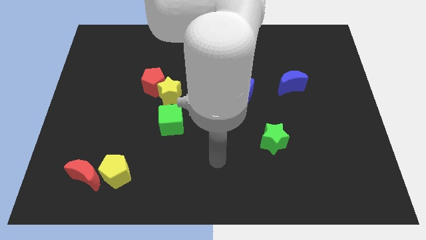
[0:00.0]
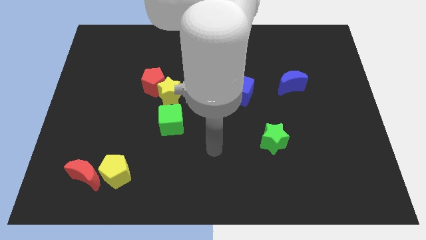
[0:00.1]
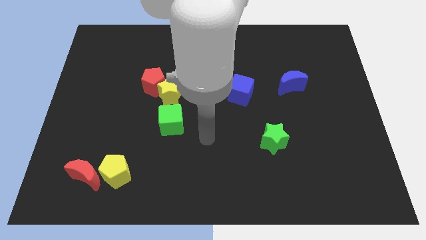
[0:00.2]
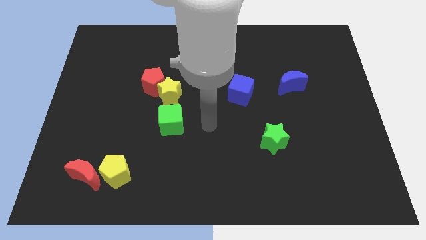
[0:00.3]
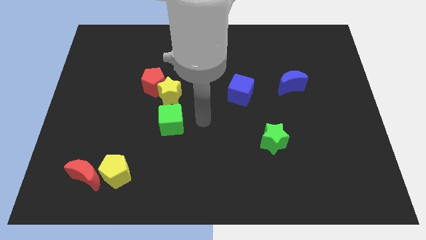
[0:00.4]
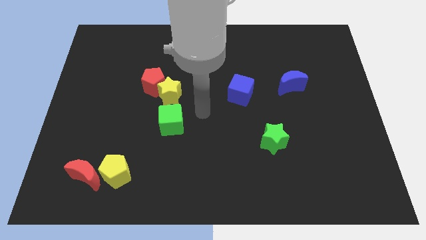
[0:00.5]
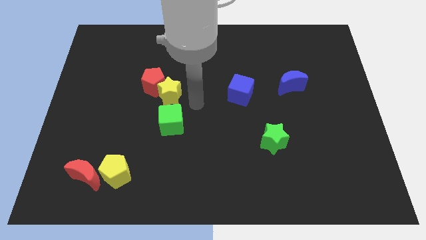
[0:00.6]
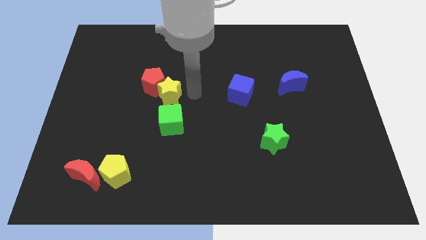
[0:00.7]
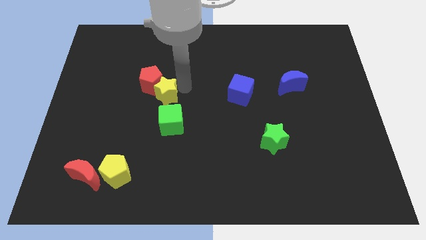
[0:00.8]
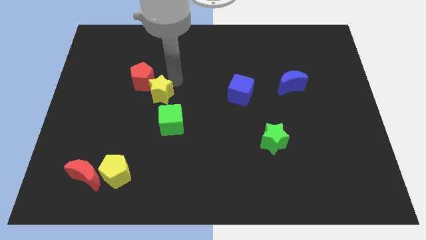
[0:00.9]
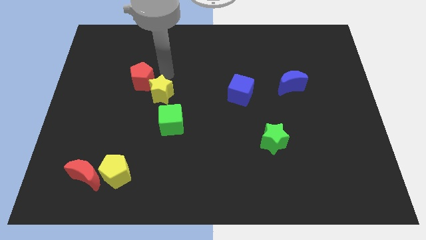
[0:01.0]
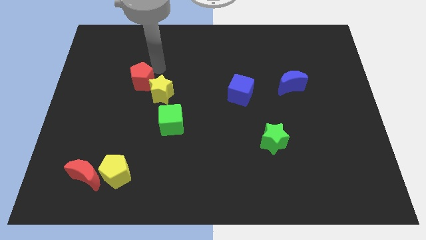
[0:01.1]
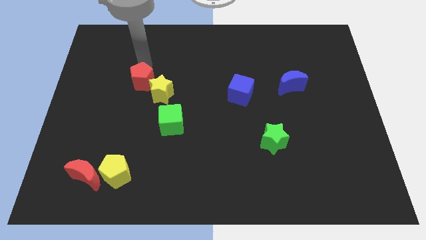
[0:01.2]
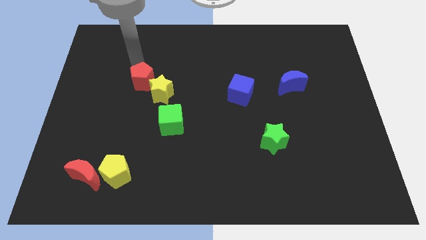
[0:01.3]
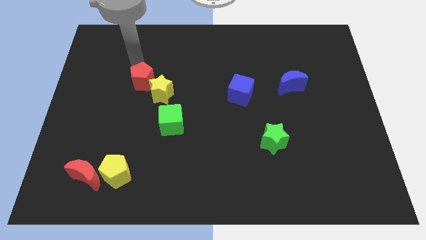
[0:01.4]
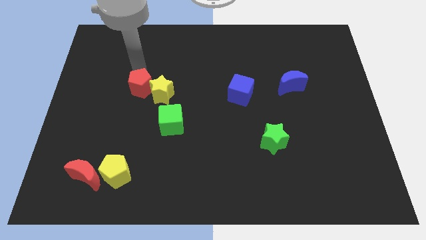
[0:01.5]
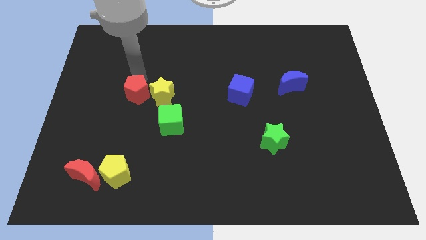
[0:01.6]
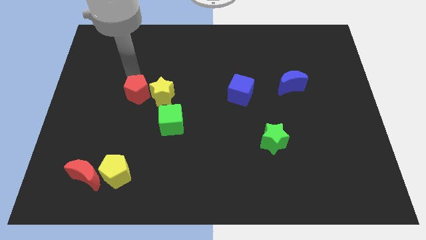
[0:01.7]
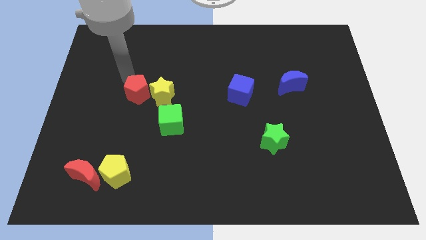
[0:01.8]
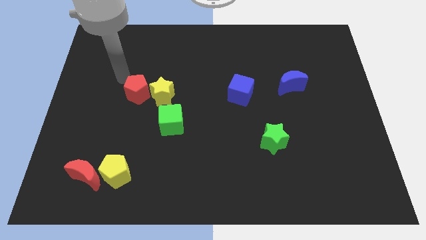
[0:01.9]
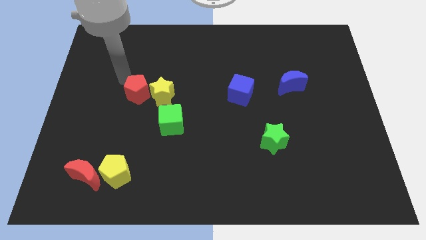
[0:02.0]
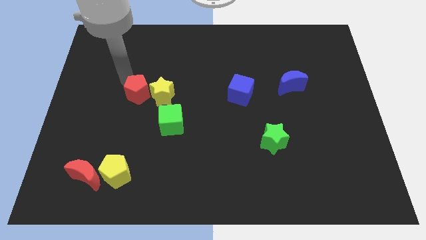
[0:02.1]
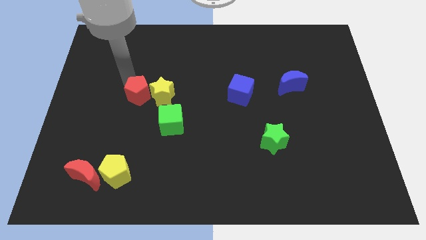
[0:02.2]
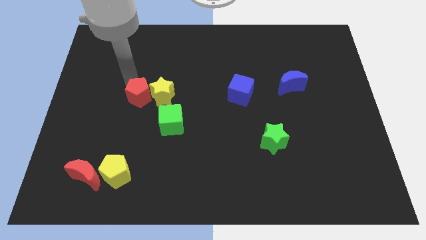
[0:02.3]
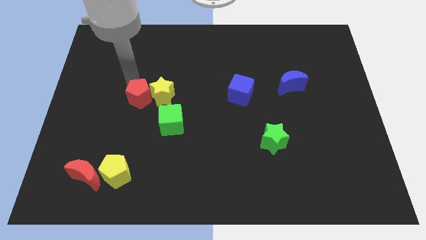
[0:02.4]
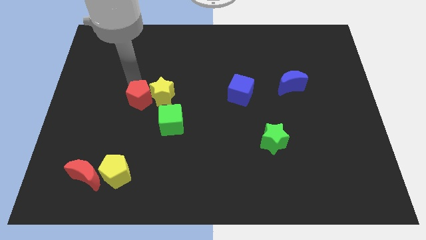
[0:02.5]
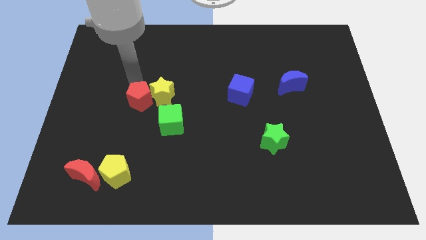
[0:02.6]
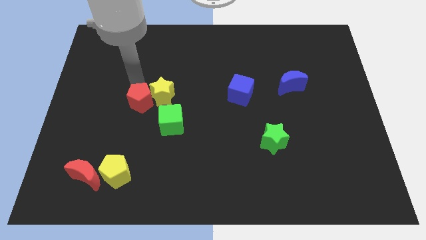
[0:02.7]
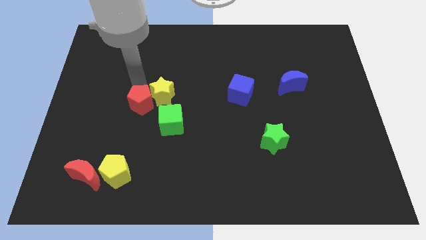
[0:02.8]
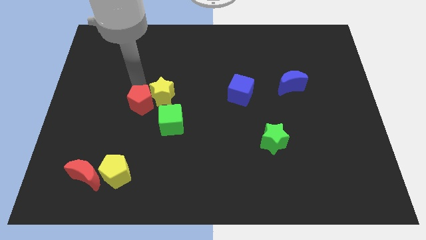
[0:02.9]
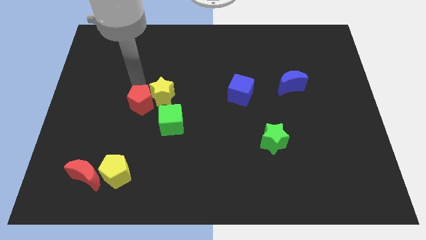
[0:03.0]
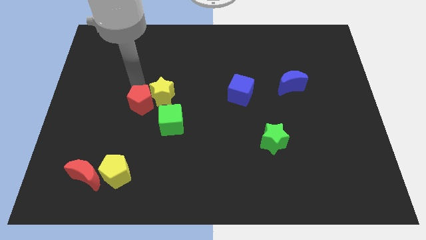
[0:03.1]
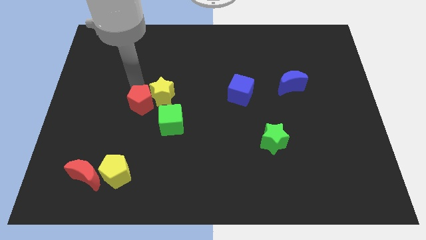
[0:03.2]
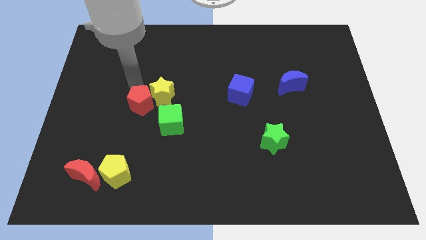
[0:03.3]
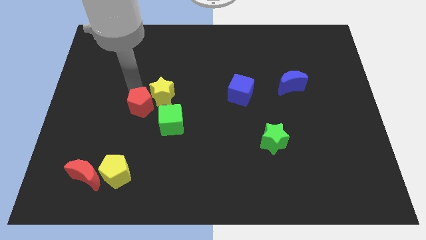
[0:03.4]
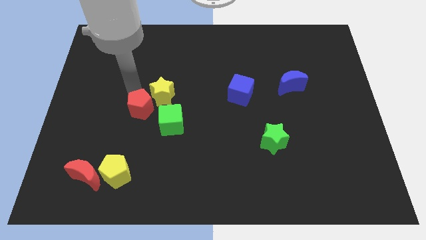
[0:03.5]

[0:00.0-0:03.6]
slightly move the red pentagon downwards

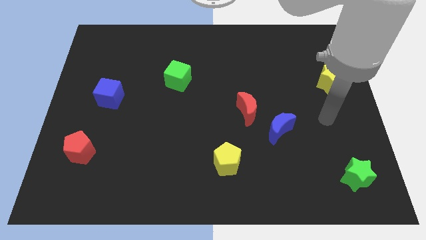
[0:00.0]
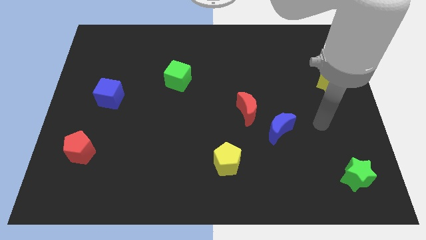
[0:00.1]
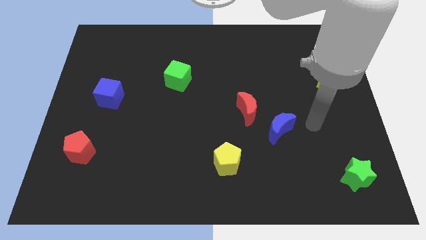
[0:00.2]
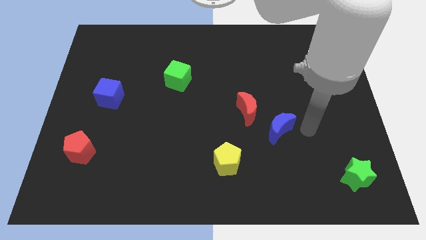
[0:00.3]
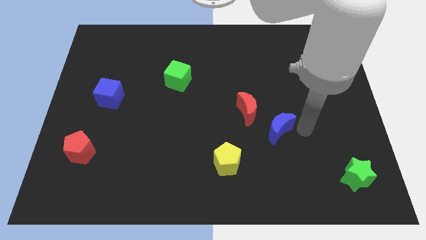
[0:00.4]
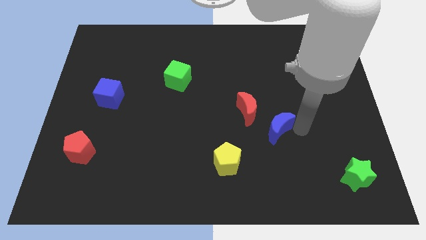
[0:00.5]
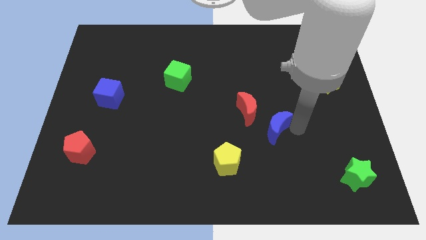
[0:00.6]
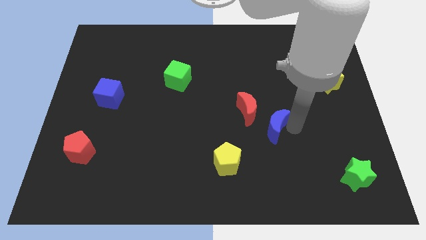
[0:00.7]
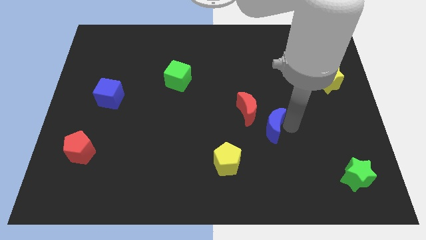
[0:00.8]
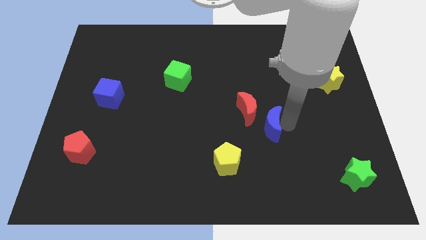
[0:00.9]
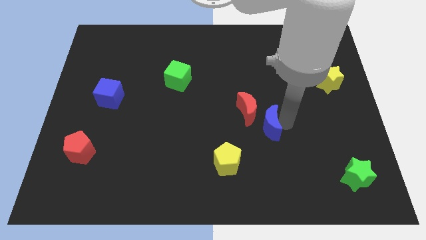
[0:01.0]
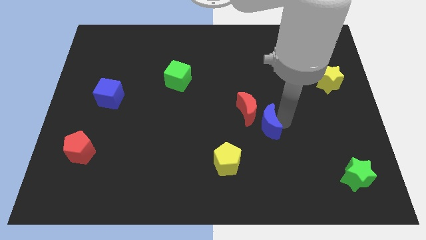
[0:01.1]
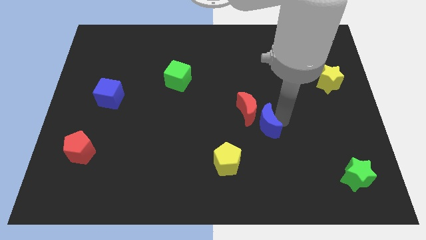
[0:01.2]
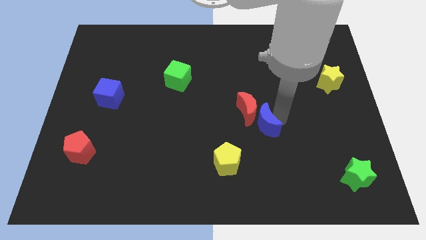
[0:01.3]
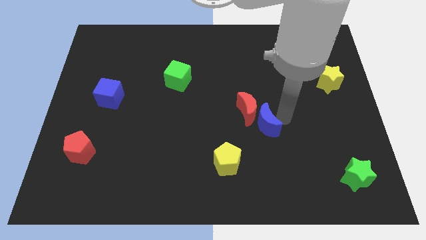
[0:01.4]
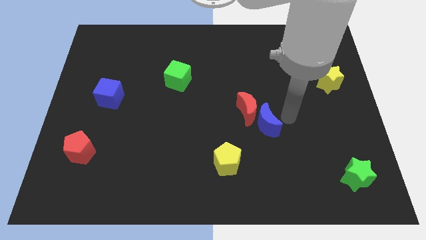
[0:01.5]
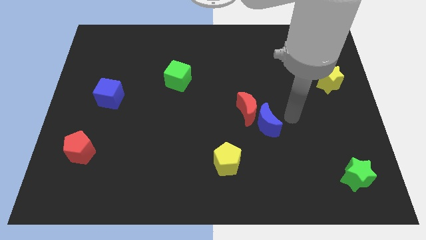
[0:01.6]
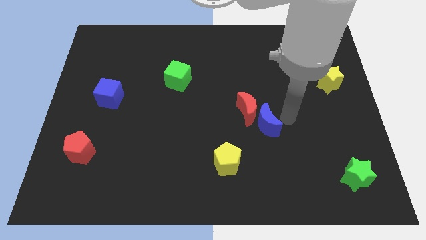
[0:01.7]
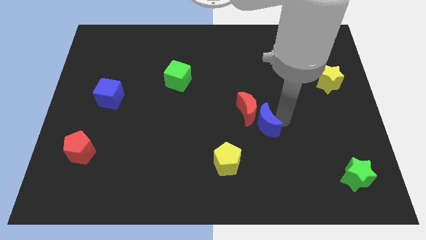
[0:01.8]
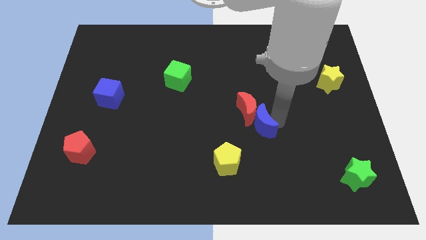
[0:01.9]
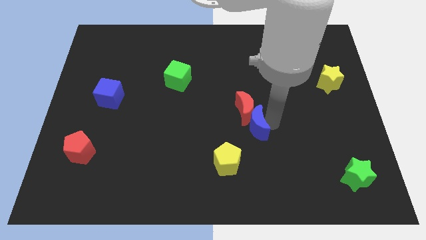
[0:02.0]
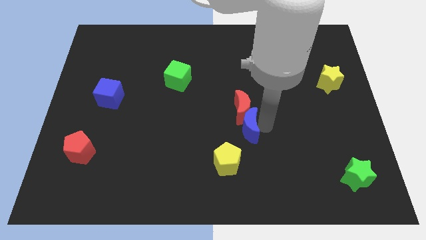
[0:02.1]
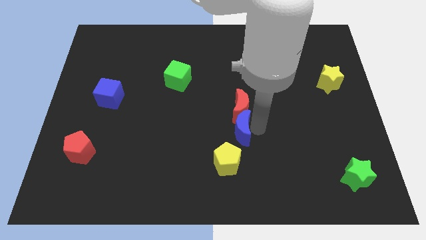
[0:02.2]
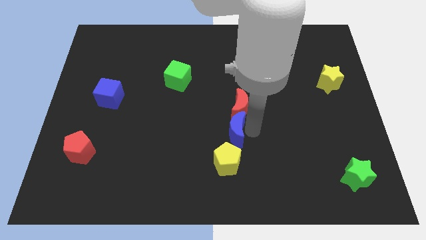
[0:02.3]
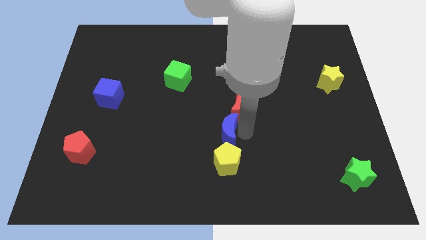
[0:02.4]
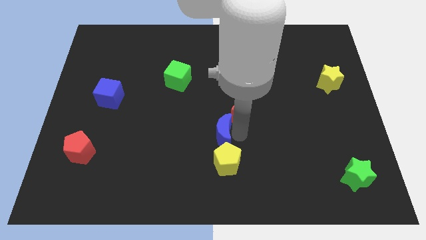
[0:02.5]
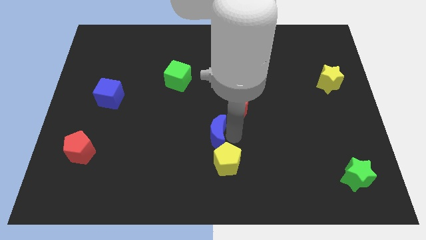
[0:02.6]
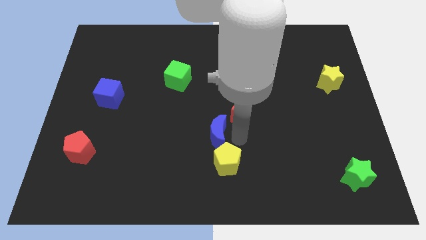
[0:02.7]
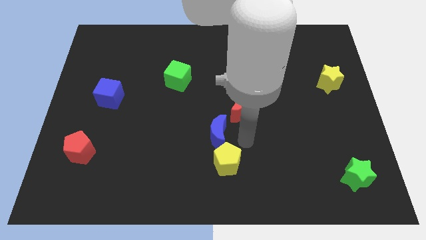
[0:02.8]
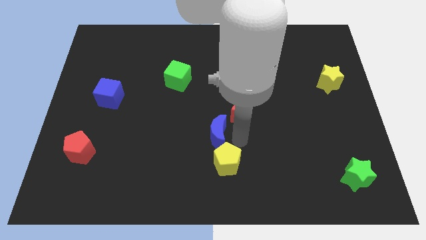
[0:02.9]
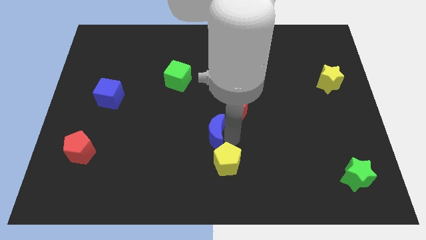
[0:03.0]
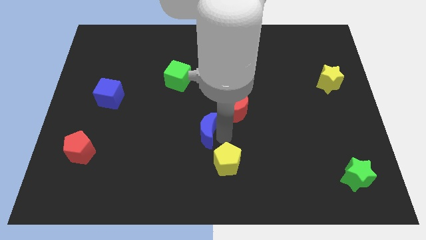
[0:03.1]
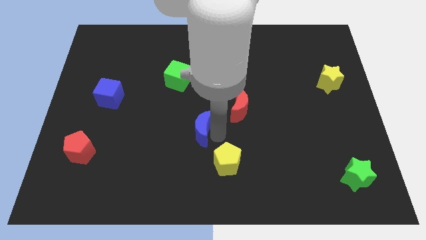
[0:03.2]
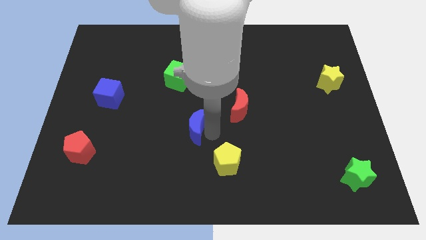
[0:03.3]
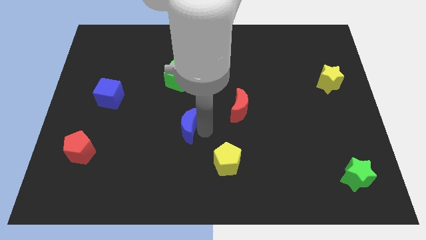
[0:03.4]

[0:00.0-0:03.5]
slide the blue moon to the left

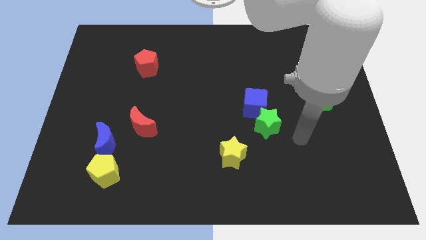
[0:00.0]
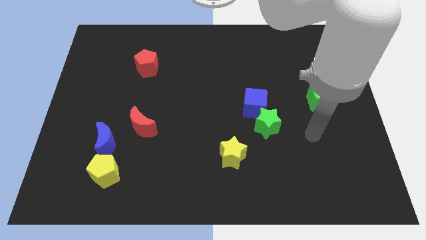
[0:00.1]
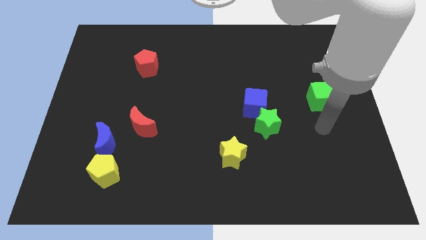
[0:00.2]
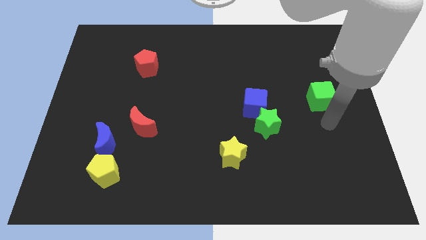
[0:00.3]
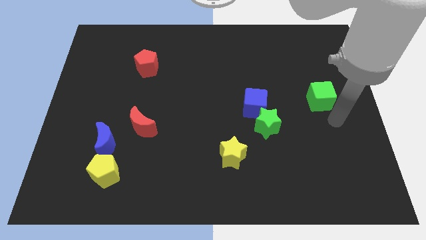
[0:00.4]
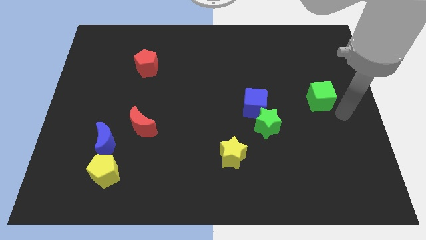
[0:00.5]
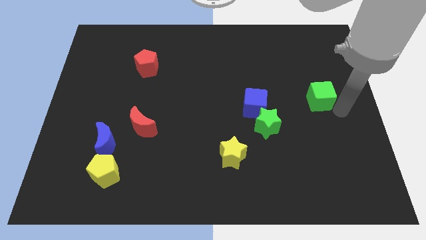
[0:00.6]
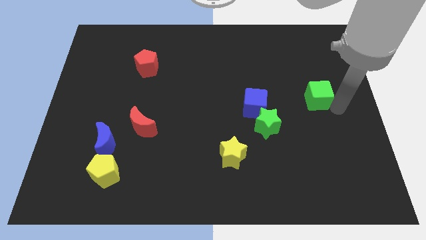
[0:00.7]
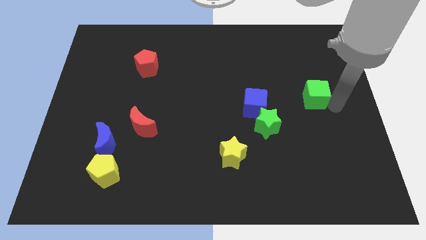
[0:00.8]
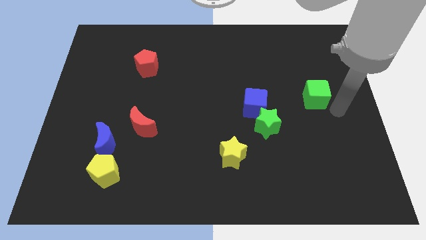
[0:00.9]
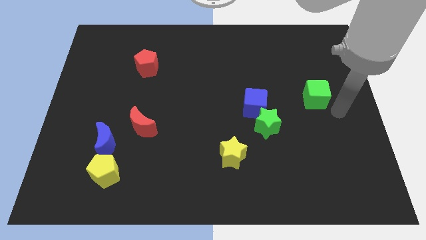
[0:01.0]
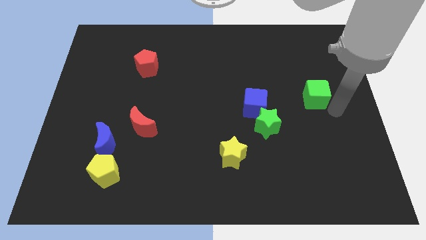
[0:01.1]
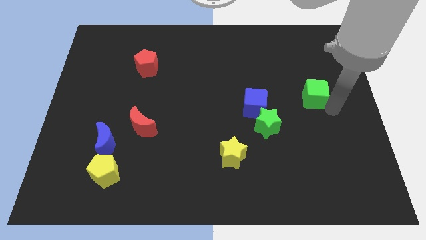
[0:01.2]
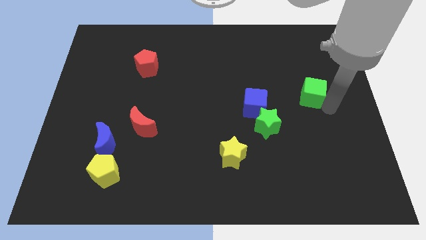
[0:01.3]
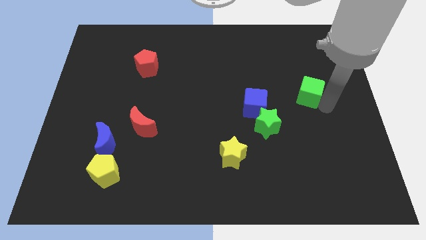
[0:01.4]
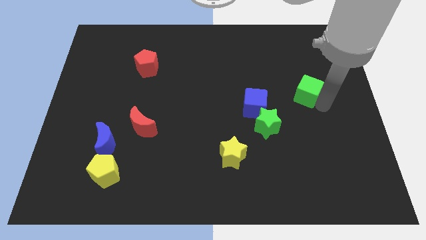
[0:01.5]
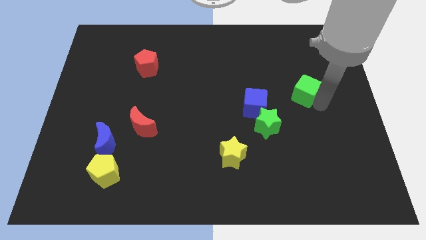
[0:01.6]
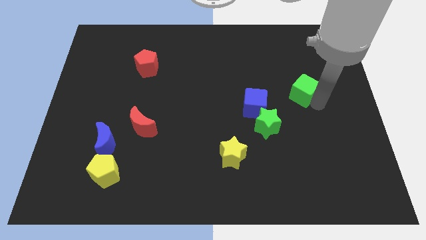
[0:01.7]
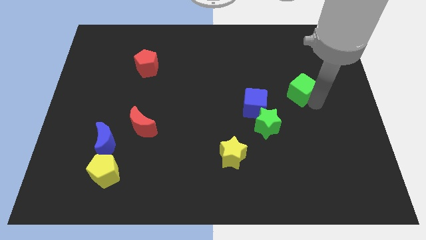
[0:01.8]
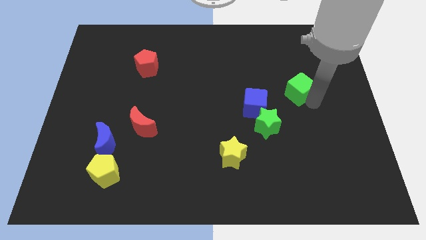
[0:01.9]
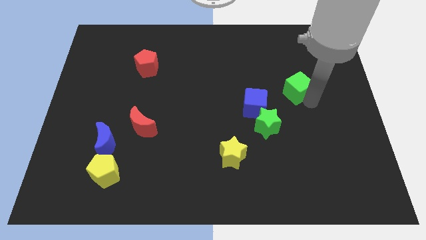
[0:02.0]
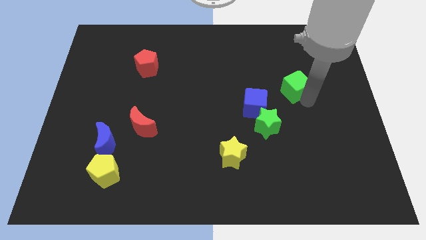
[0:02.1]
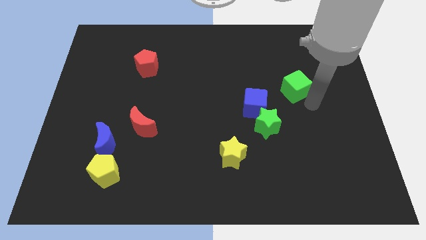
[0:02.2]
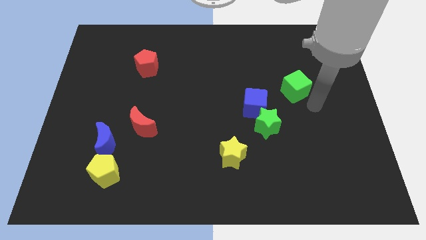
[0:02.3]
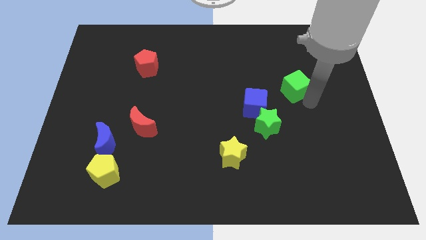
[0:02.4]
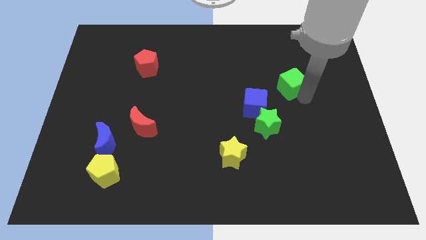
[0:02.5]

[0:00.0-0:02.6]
move the green cube slightly diagonally upwards and to the left
